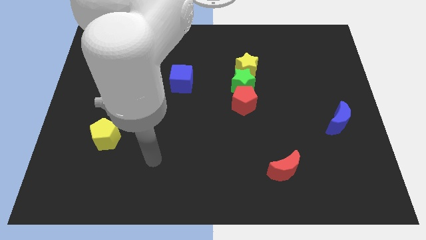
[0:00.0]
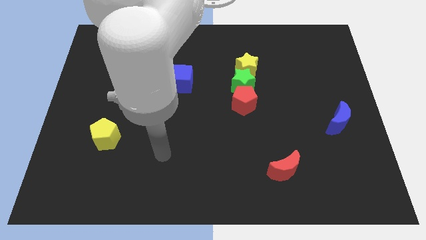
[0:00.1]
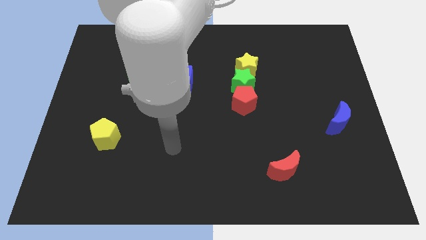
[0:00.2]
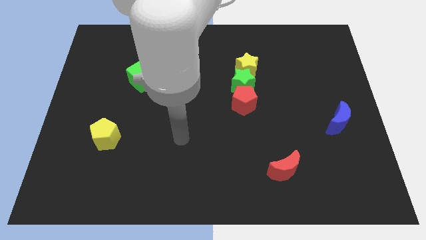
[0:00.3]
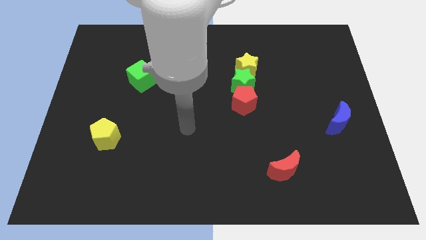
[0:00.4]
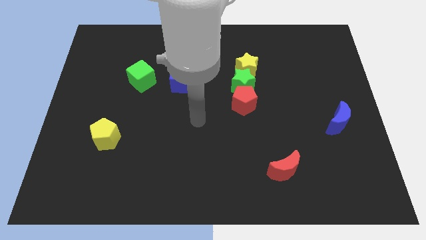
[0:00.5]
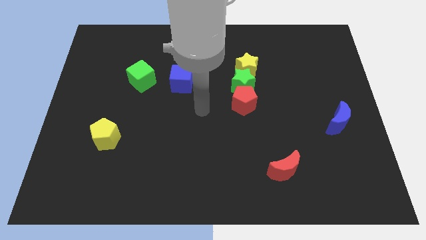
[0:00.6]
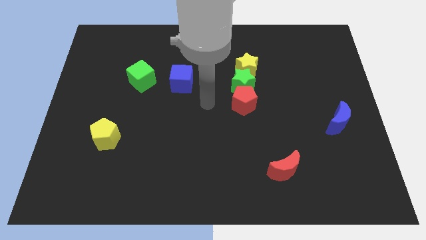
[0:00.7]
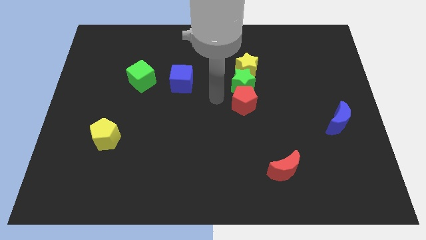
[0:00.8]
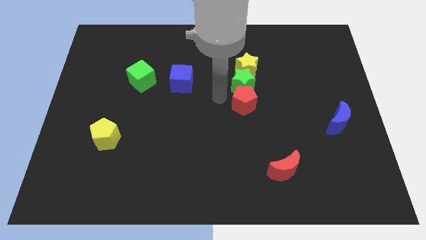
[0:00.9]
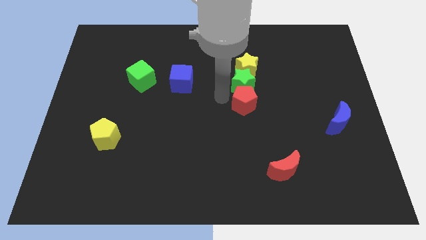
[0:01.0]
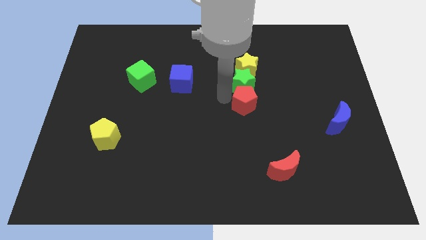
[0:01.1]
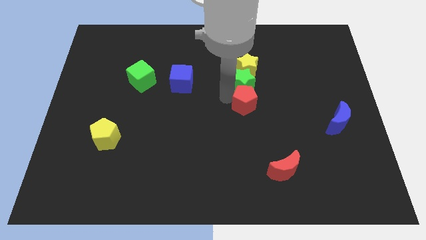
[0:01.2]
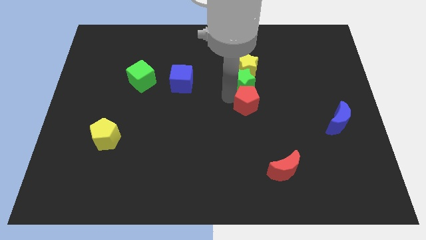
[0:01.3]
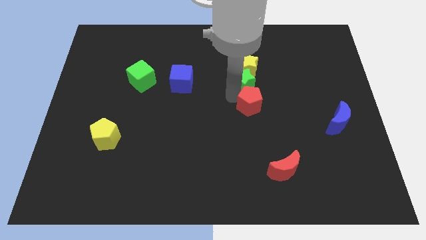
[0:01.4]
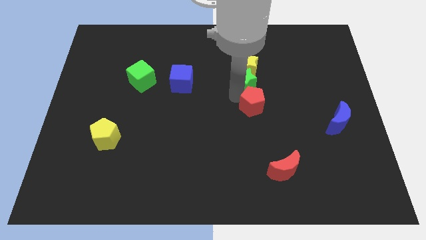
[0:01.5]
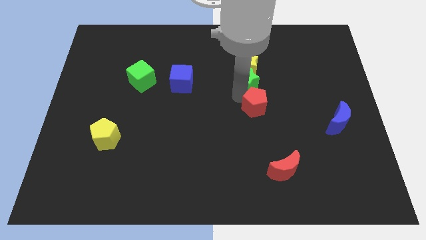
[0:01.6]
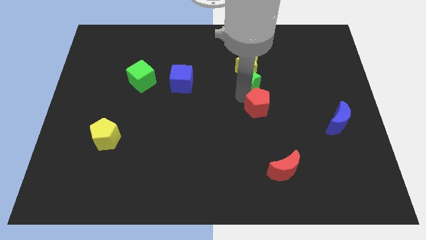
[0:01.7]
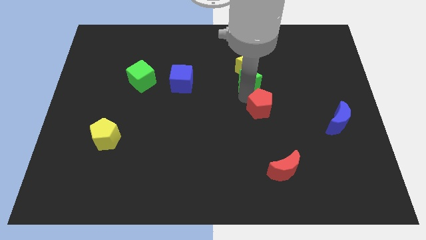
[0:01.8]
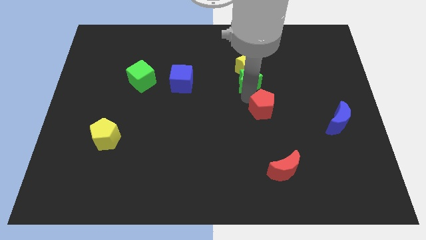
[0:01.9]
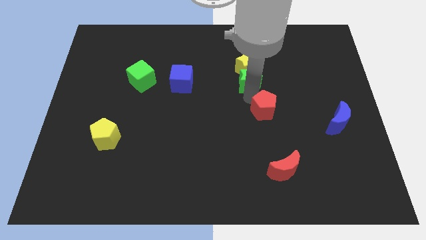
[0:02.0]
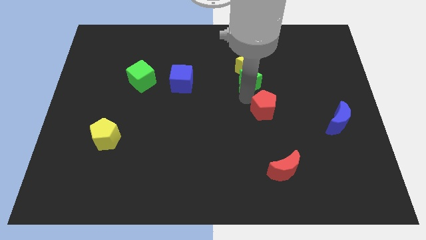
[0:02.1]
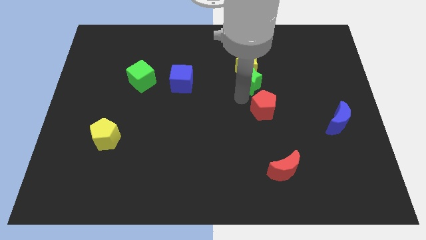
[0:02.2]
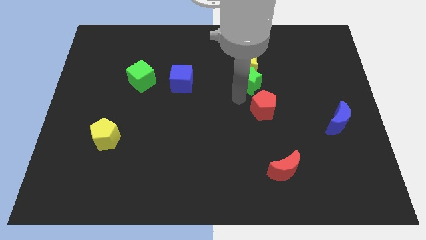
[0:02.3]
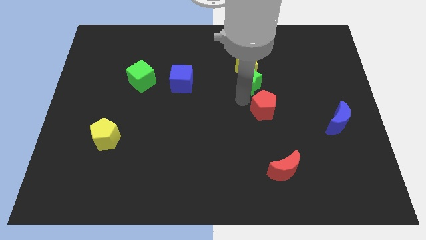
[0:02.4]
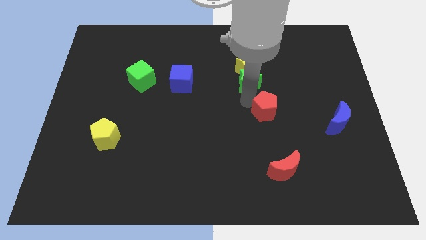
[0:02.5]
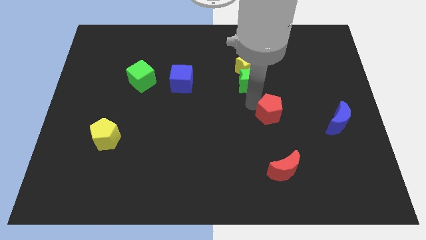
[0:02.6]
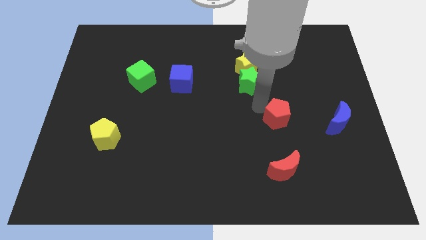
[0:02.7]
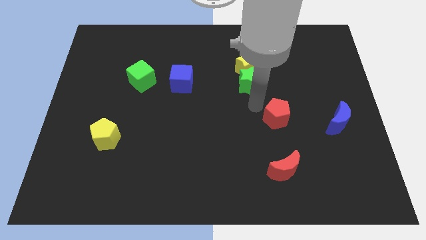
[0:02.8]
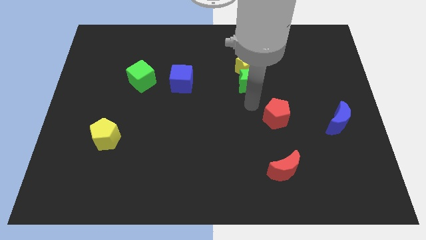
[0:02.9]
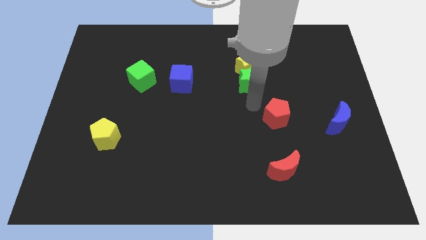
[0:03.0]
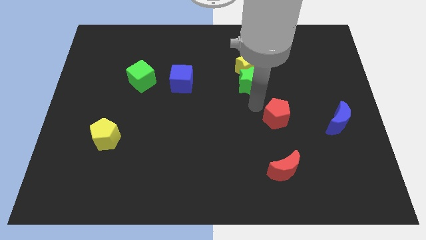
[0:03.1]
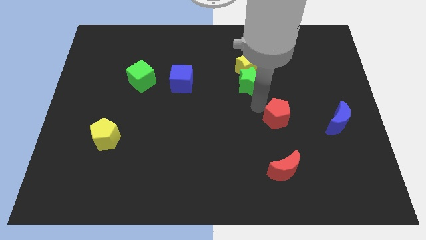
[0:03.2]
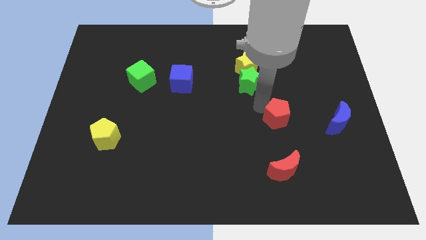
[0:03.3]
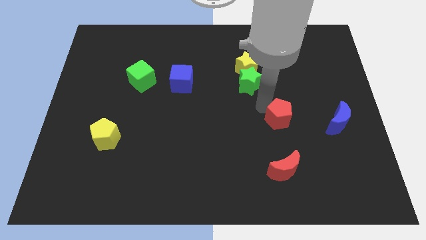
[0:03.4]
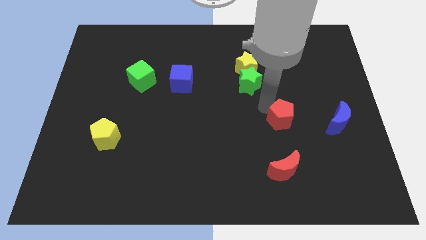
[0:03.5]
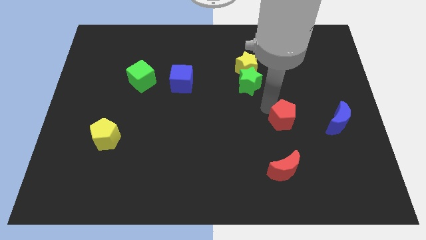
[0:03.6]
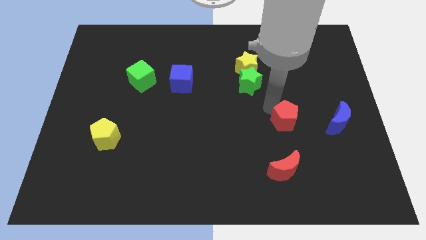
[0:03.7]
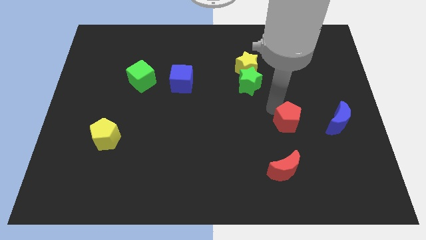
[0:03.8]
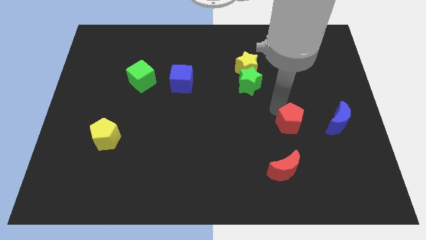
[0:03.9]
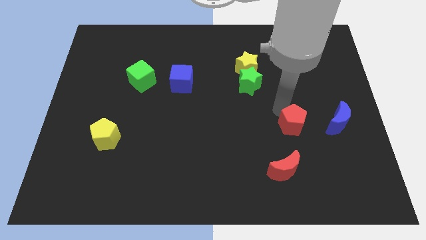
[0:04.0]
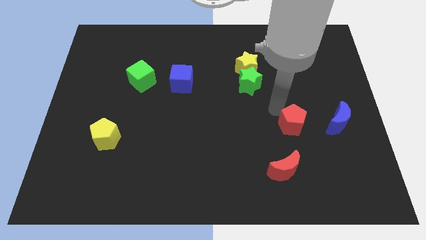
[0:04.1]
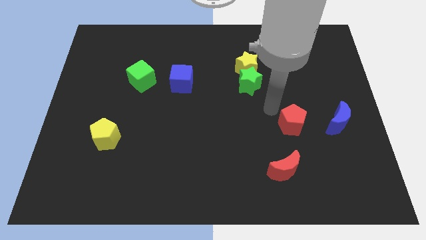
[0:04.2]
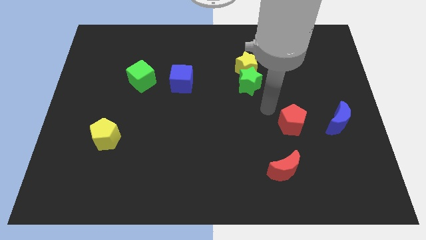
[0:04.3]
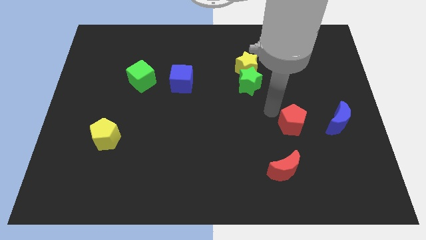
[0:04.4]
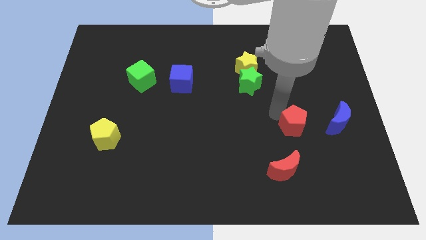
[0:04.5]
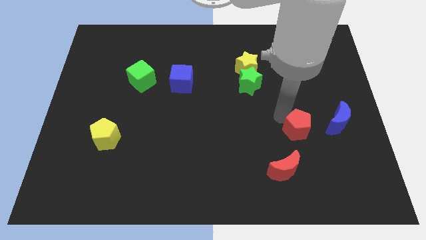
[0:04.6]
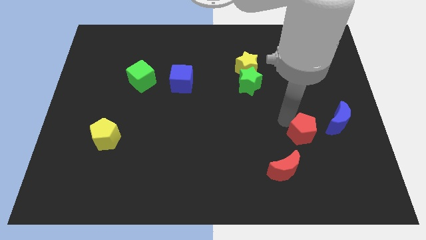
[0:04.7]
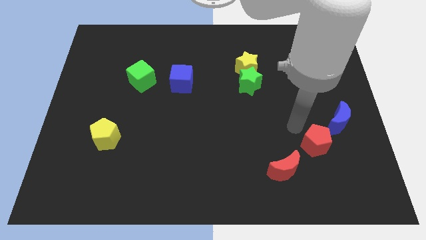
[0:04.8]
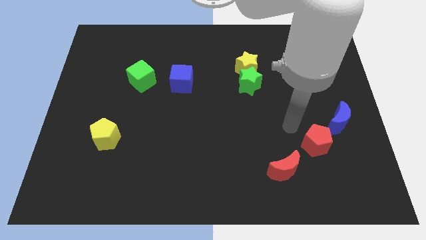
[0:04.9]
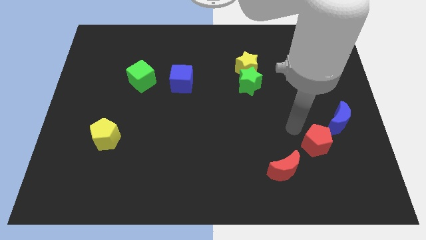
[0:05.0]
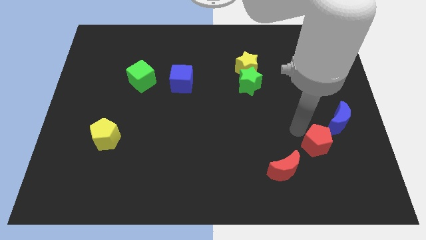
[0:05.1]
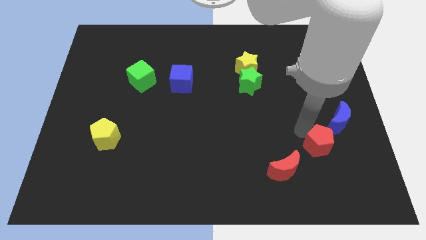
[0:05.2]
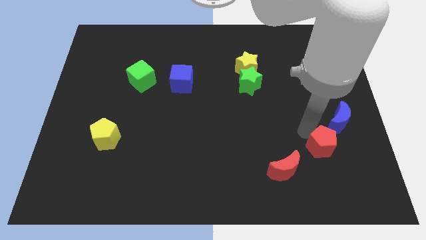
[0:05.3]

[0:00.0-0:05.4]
push the red pentagon to the bottom of the blue moon

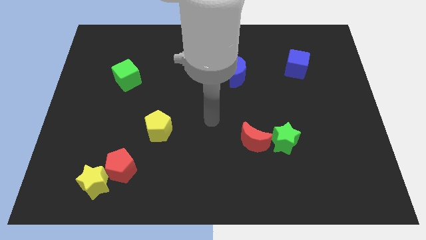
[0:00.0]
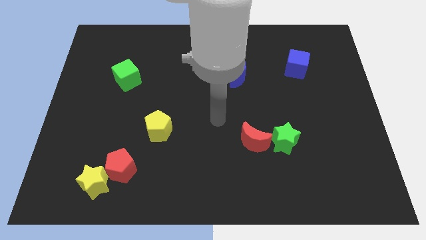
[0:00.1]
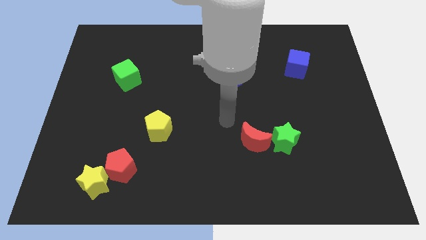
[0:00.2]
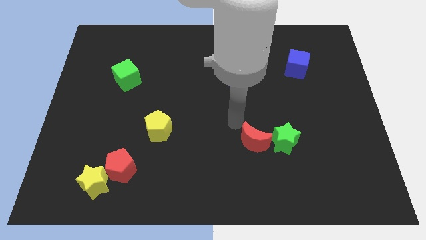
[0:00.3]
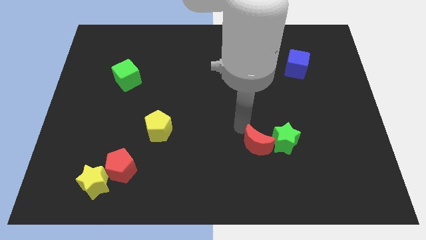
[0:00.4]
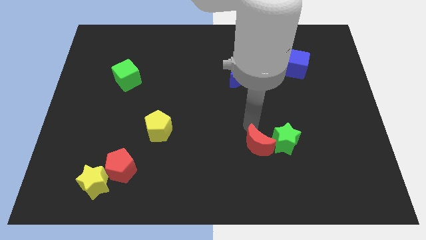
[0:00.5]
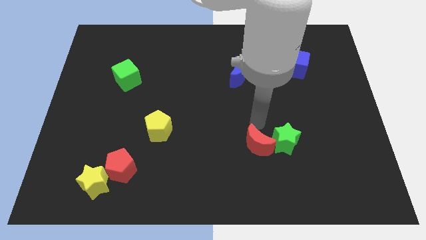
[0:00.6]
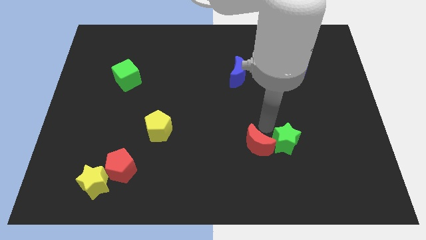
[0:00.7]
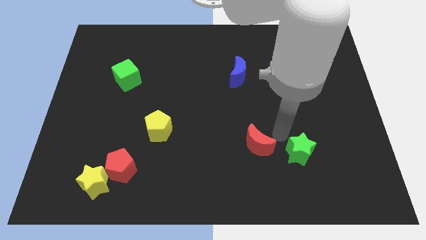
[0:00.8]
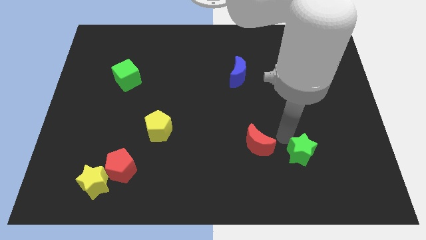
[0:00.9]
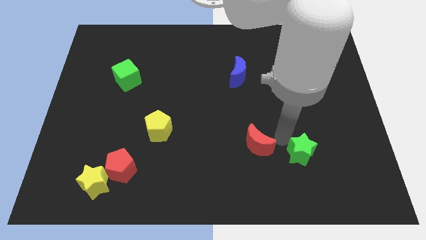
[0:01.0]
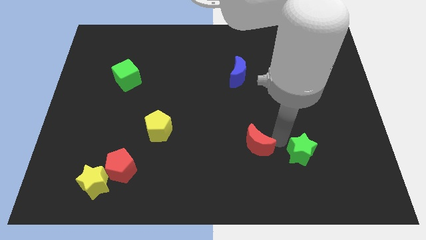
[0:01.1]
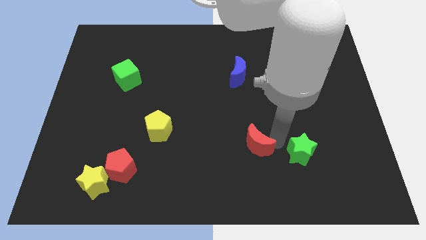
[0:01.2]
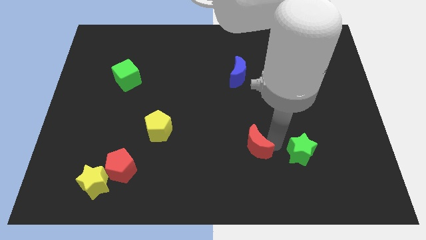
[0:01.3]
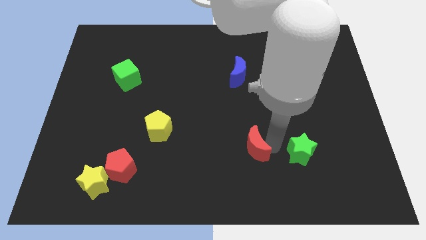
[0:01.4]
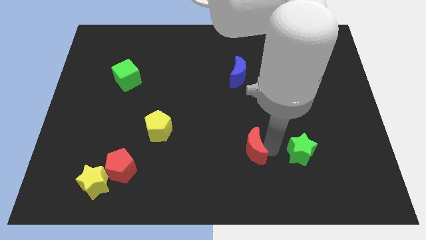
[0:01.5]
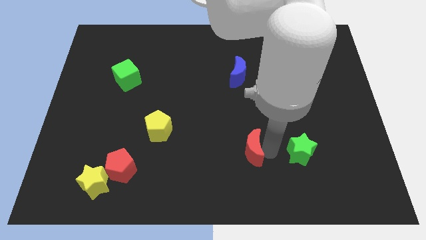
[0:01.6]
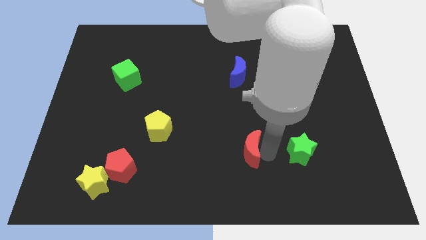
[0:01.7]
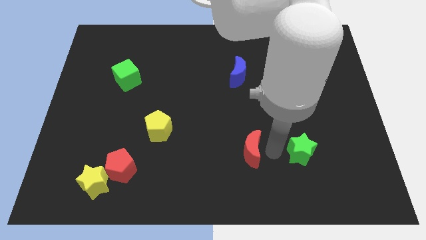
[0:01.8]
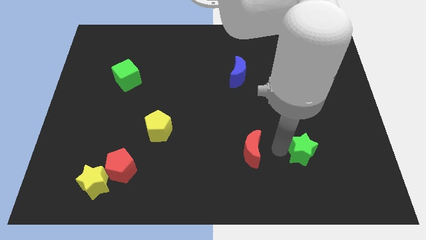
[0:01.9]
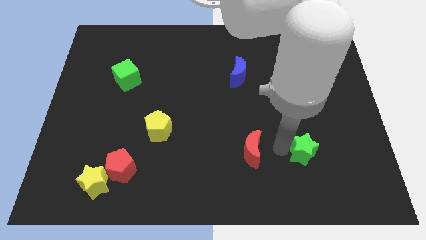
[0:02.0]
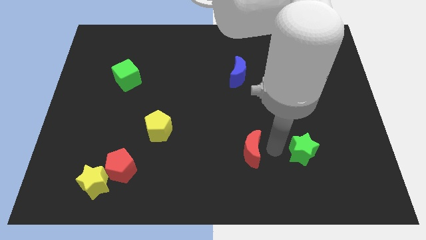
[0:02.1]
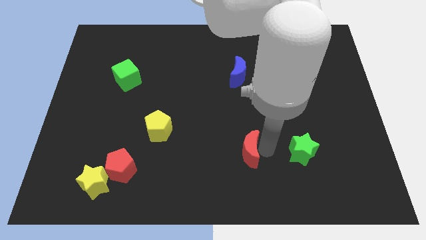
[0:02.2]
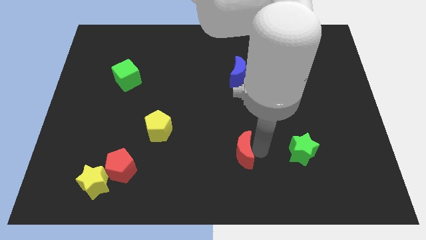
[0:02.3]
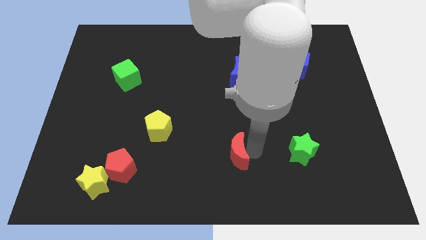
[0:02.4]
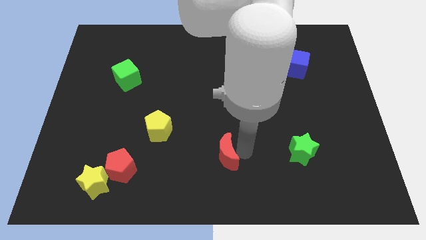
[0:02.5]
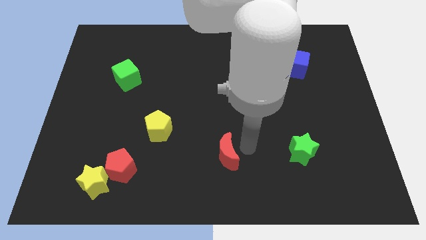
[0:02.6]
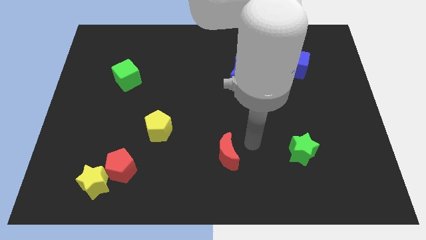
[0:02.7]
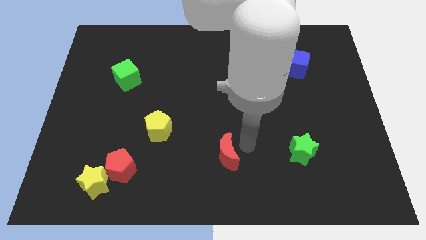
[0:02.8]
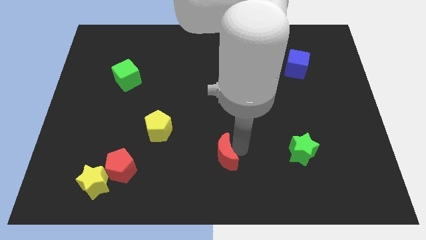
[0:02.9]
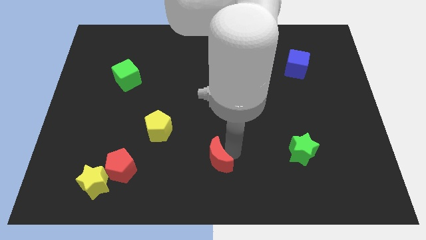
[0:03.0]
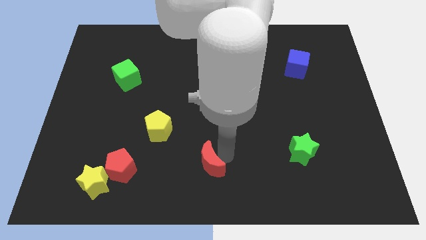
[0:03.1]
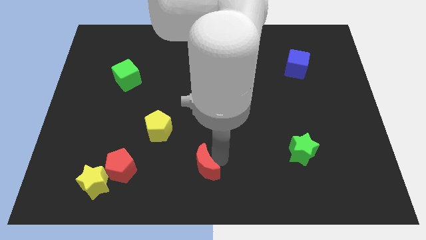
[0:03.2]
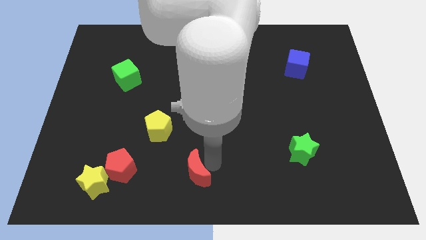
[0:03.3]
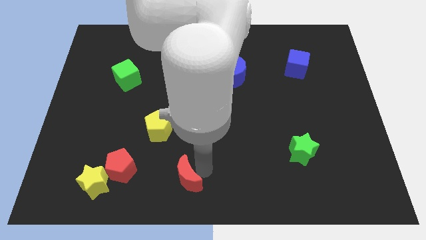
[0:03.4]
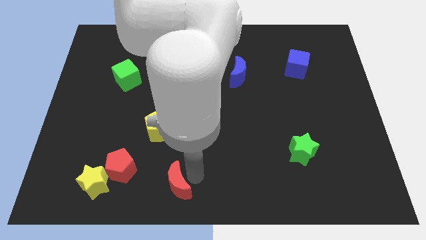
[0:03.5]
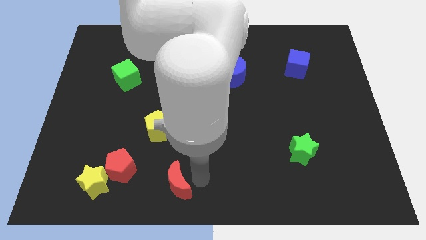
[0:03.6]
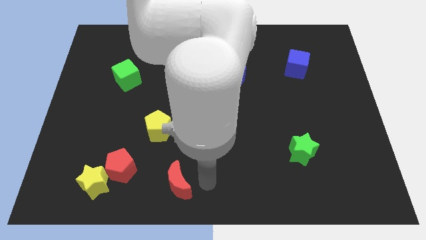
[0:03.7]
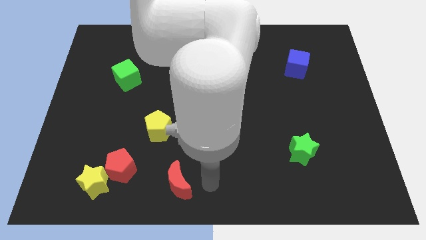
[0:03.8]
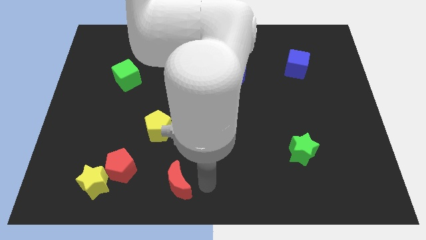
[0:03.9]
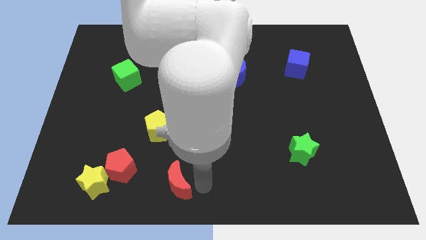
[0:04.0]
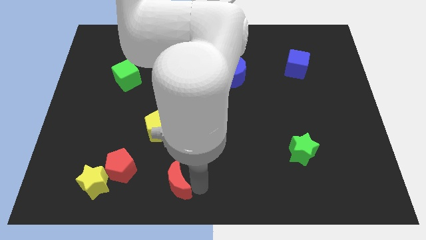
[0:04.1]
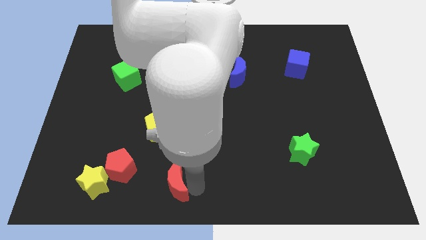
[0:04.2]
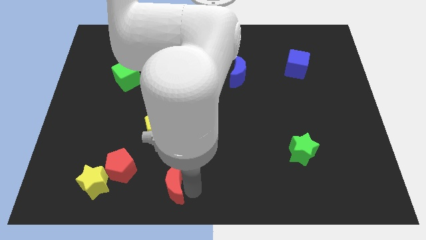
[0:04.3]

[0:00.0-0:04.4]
move the red moon right of the yellow star
